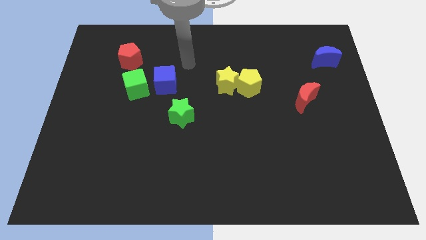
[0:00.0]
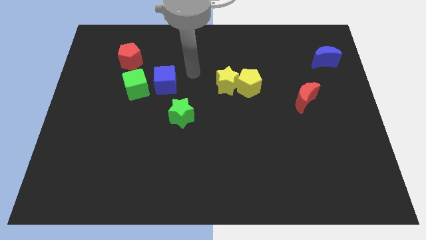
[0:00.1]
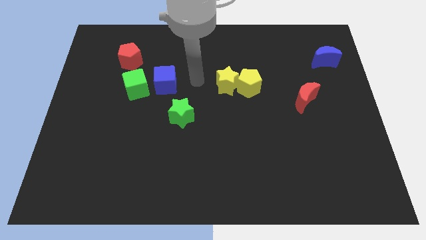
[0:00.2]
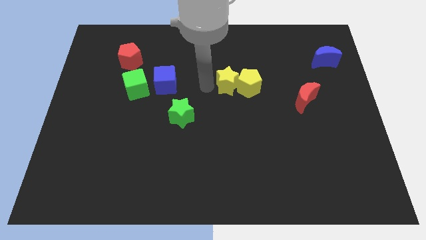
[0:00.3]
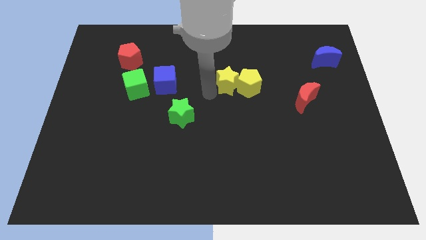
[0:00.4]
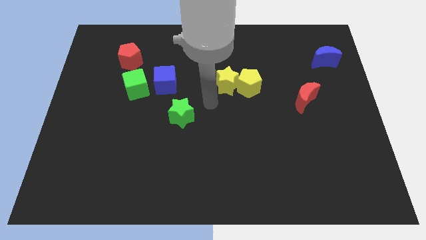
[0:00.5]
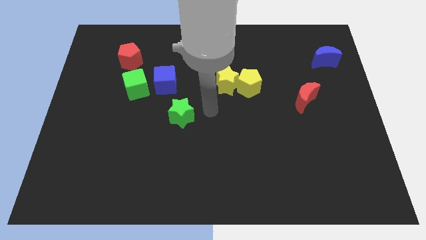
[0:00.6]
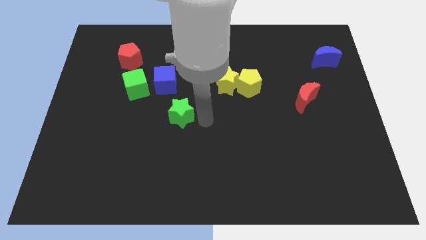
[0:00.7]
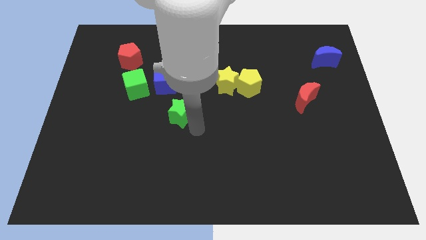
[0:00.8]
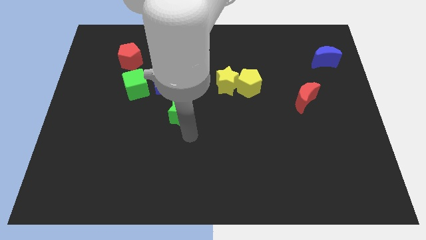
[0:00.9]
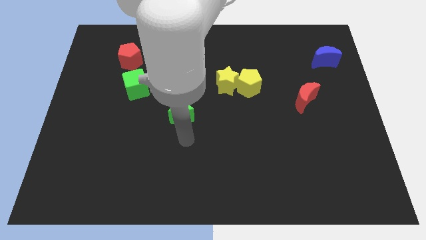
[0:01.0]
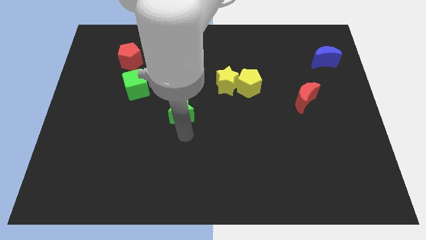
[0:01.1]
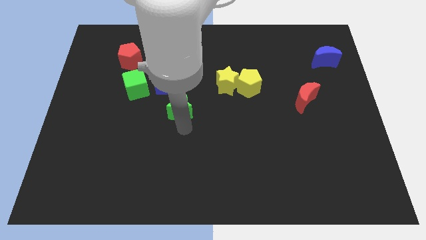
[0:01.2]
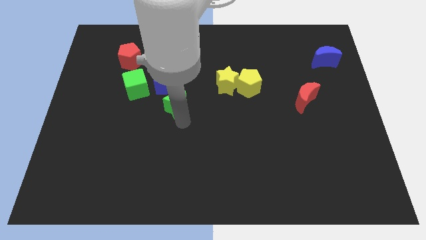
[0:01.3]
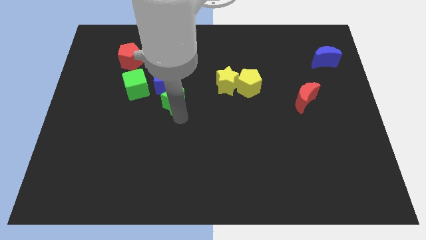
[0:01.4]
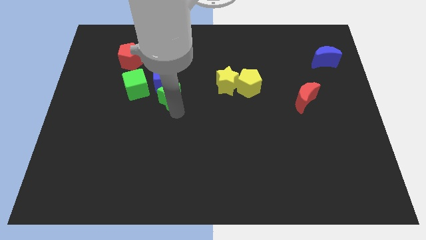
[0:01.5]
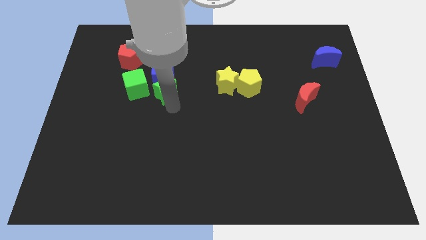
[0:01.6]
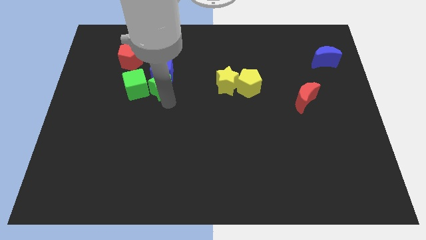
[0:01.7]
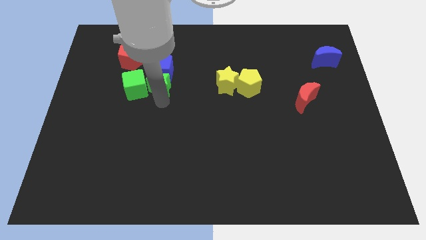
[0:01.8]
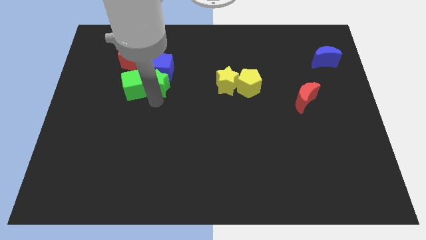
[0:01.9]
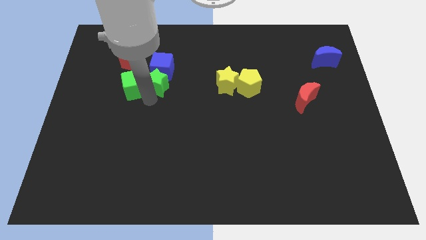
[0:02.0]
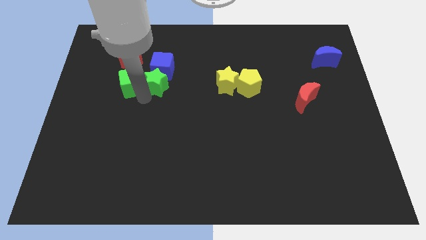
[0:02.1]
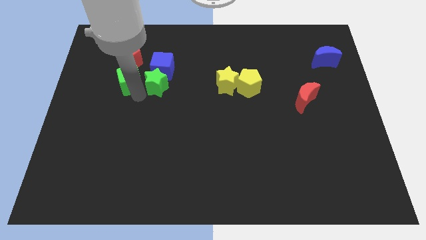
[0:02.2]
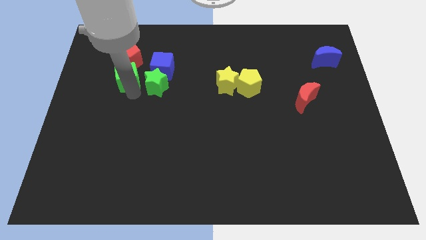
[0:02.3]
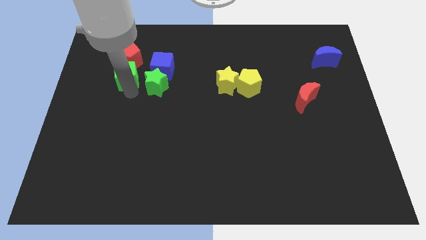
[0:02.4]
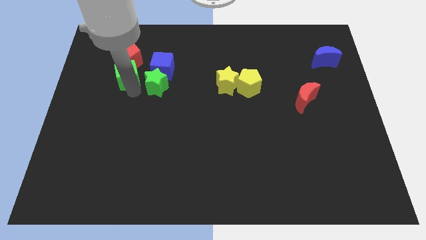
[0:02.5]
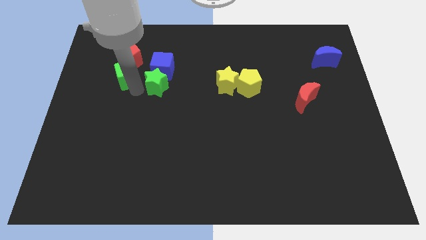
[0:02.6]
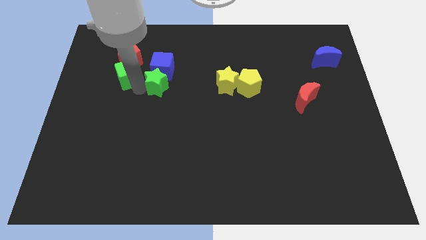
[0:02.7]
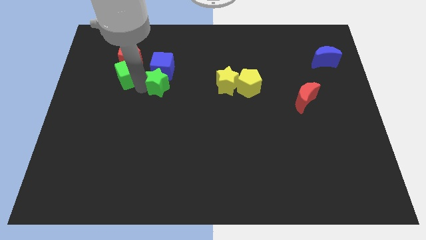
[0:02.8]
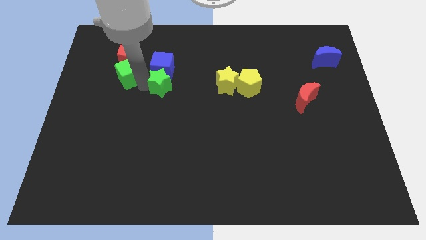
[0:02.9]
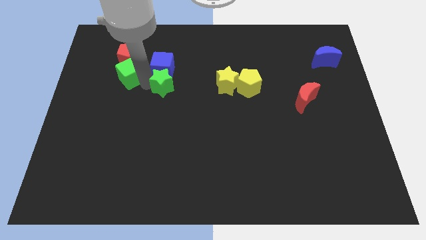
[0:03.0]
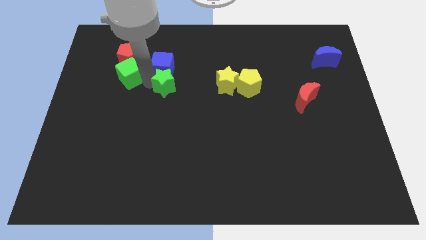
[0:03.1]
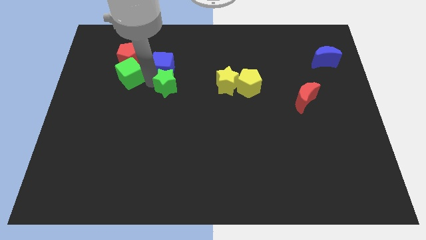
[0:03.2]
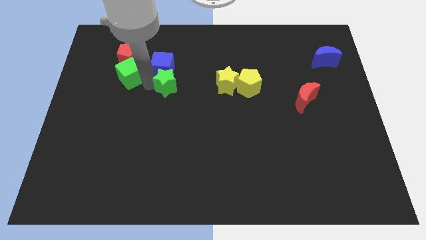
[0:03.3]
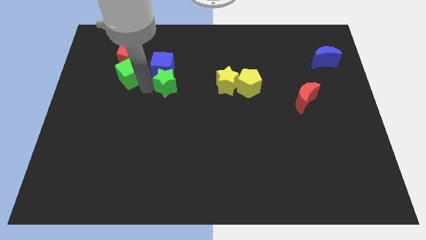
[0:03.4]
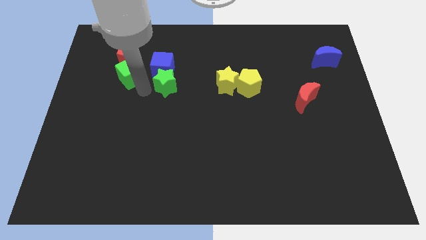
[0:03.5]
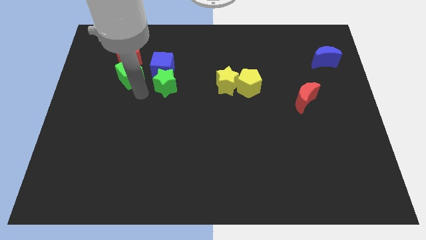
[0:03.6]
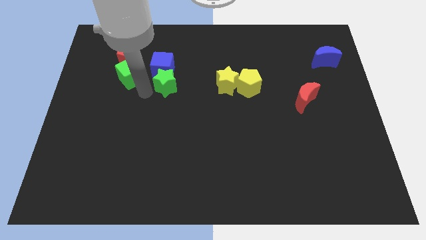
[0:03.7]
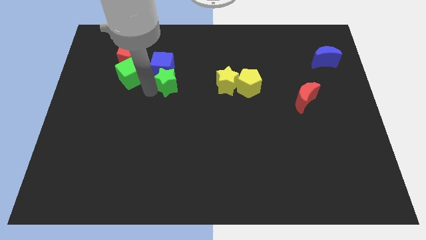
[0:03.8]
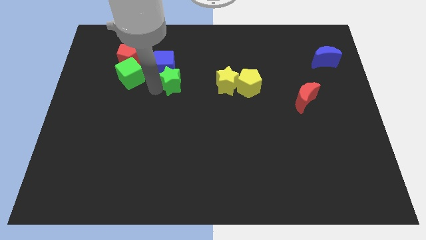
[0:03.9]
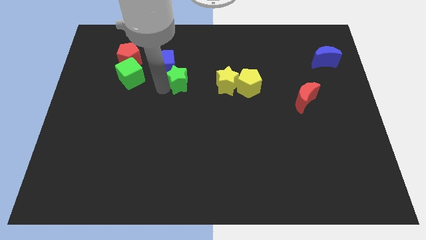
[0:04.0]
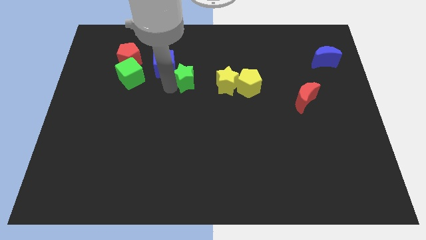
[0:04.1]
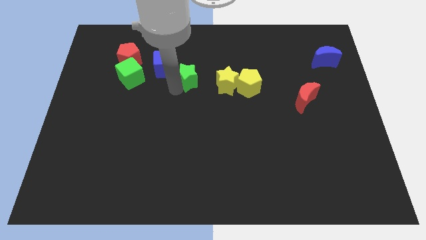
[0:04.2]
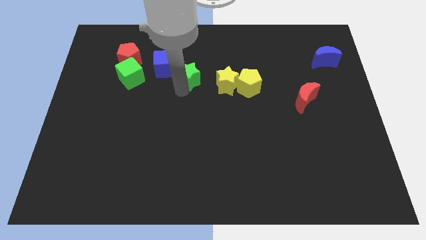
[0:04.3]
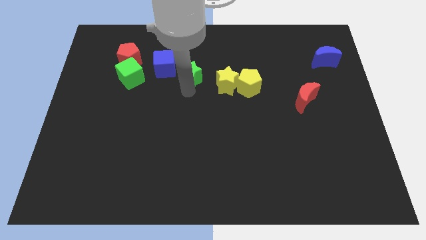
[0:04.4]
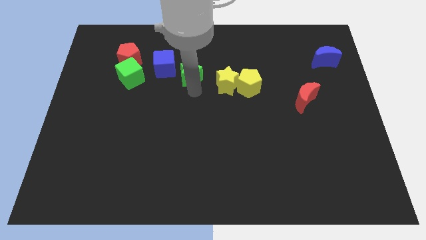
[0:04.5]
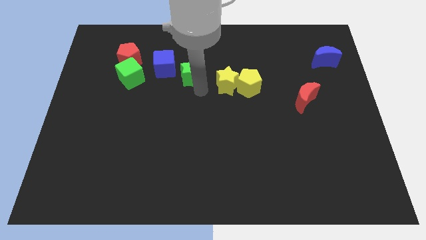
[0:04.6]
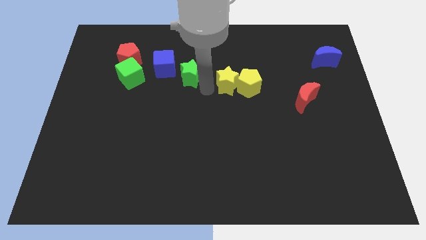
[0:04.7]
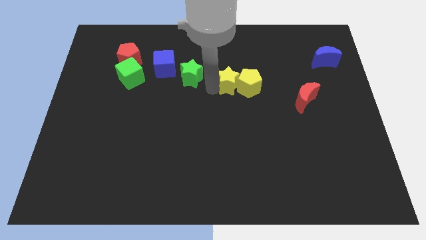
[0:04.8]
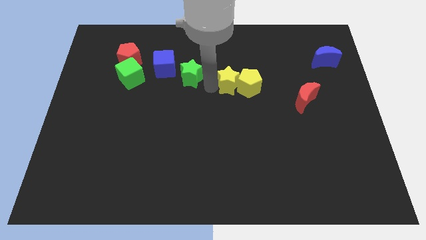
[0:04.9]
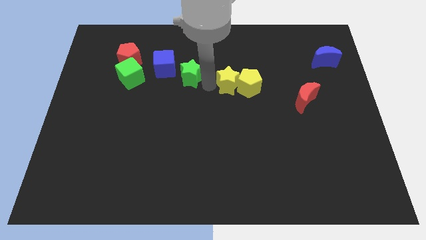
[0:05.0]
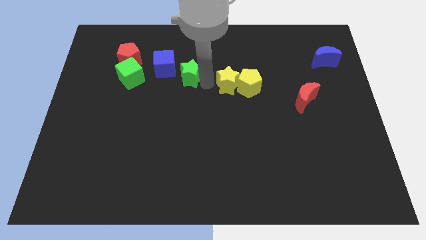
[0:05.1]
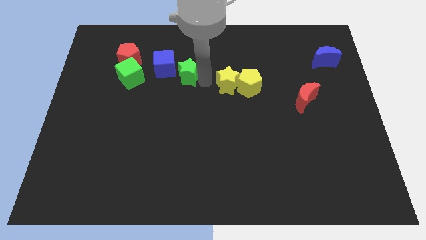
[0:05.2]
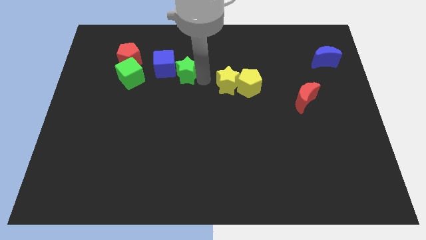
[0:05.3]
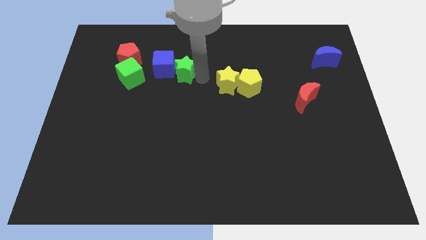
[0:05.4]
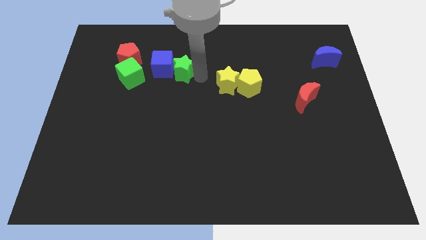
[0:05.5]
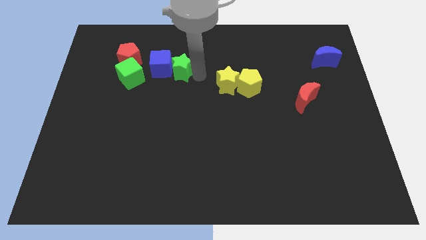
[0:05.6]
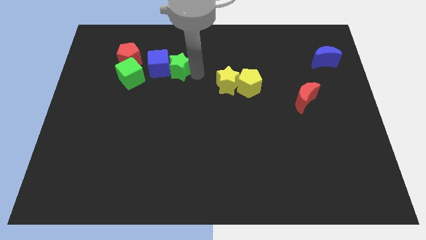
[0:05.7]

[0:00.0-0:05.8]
slide the green star to the right side of the red pentagon

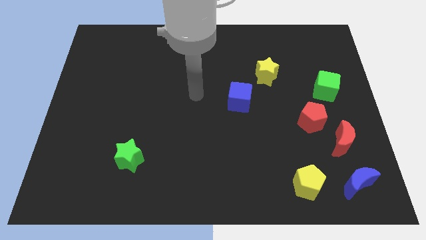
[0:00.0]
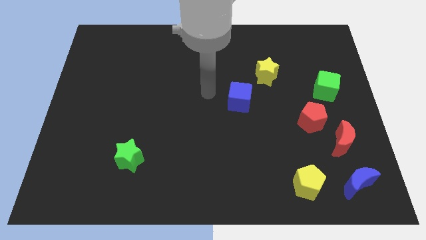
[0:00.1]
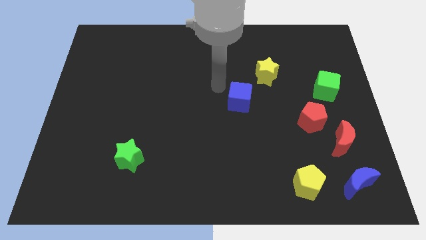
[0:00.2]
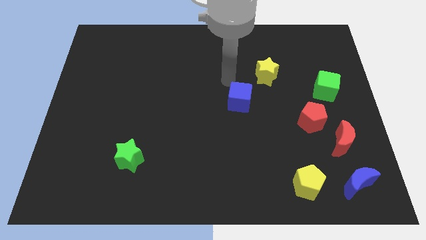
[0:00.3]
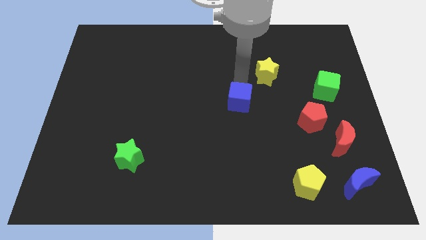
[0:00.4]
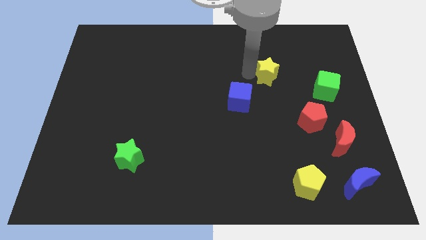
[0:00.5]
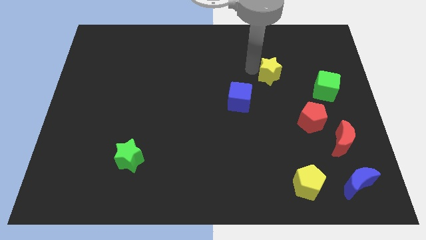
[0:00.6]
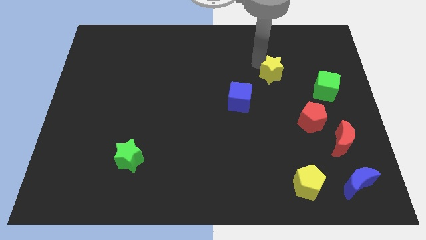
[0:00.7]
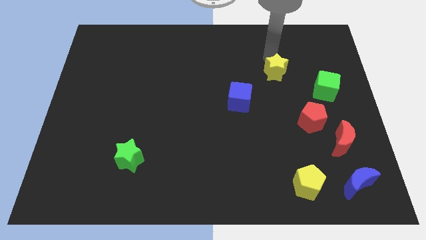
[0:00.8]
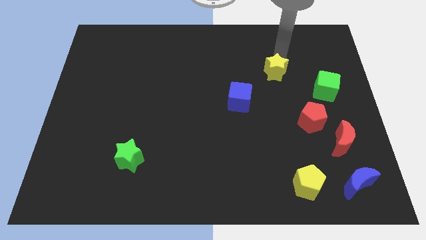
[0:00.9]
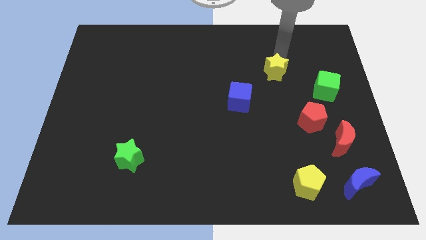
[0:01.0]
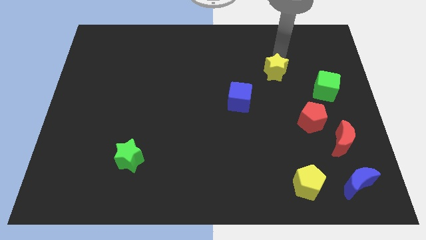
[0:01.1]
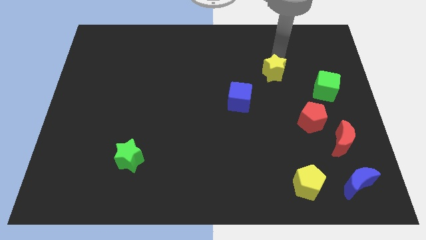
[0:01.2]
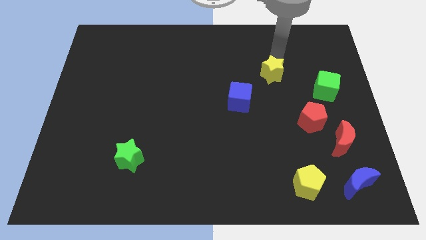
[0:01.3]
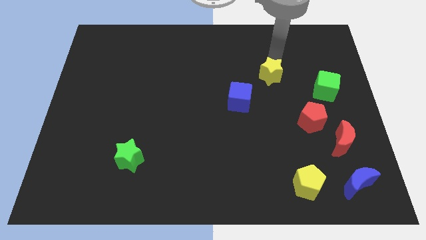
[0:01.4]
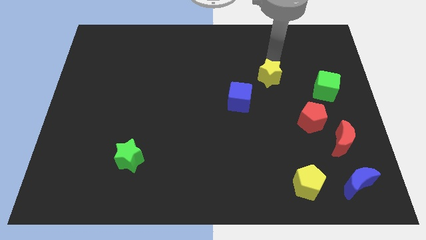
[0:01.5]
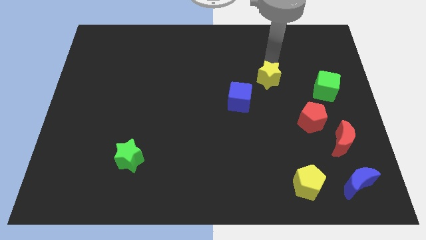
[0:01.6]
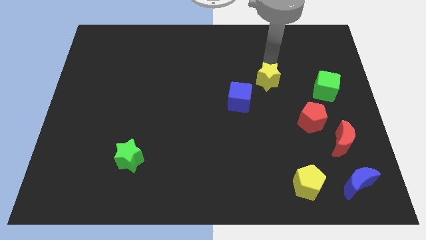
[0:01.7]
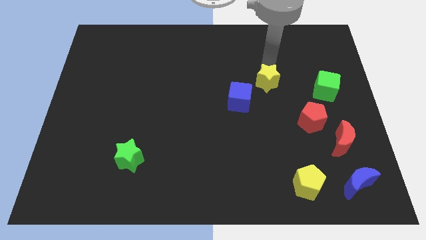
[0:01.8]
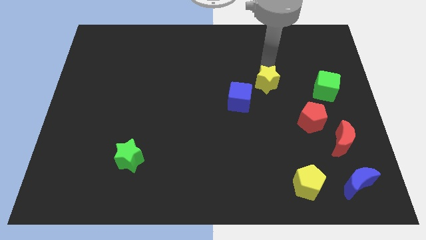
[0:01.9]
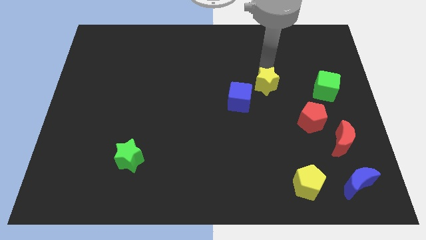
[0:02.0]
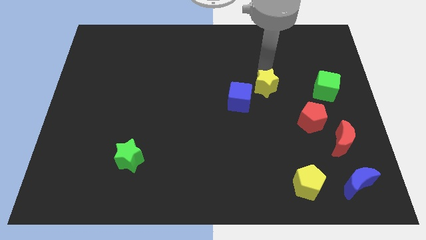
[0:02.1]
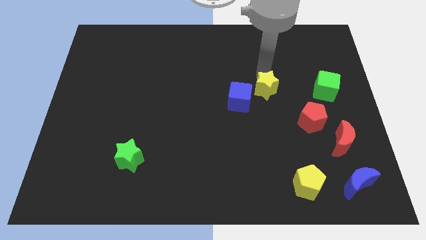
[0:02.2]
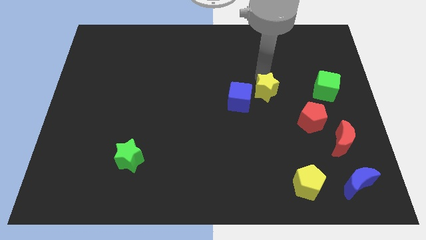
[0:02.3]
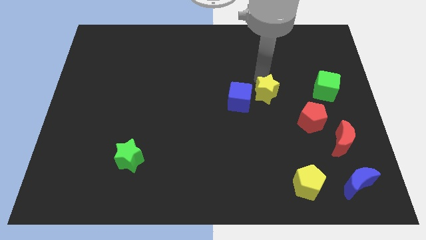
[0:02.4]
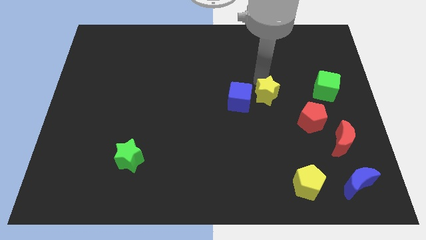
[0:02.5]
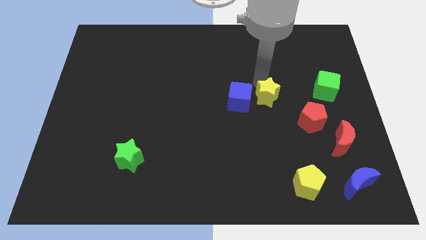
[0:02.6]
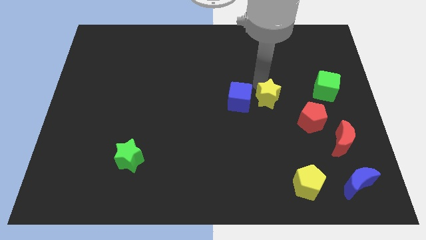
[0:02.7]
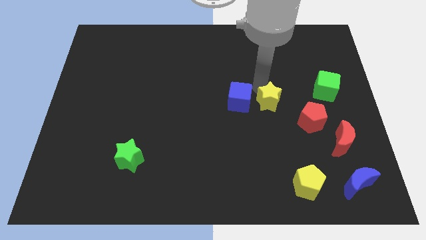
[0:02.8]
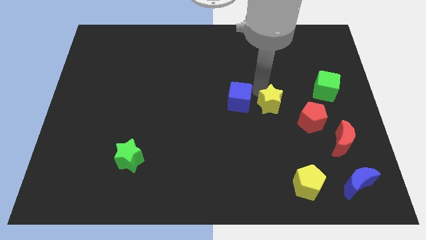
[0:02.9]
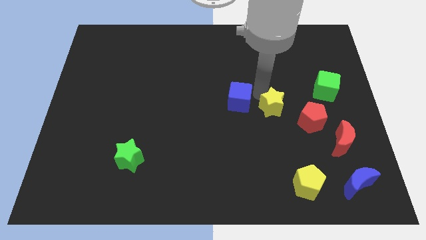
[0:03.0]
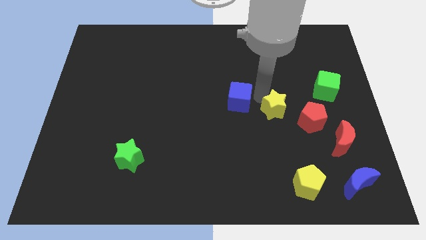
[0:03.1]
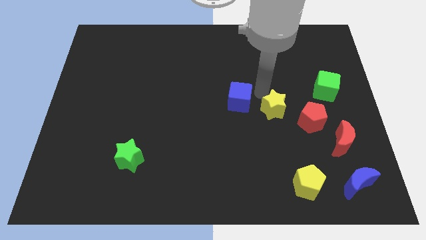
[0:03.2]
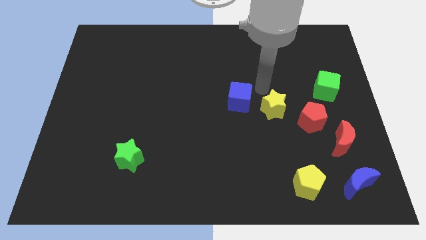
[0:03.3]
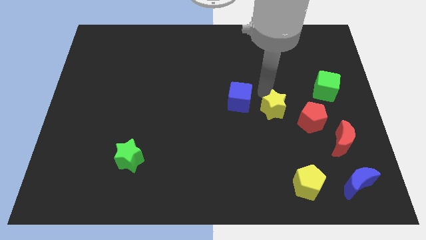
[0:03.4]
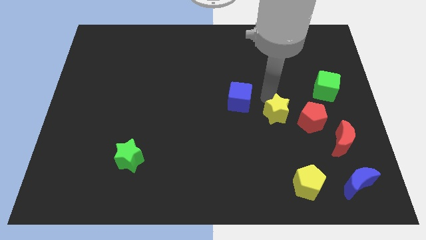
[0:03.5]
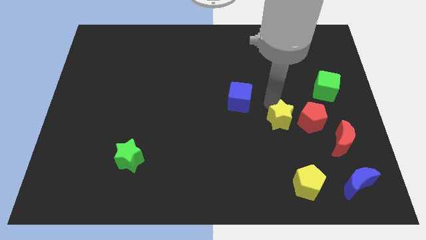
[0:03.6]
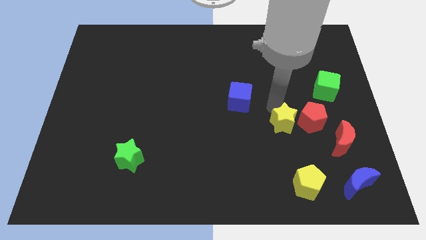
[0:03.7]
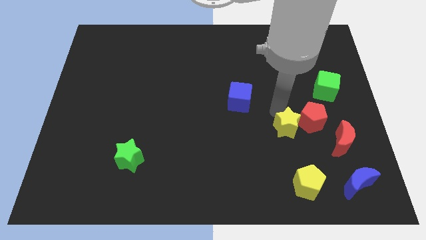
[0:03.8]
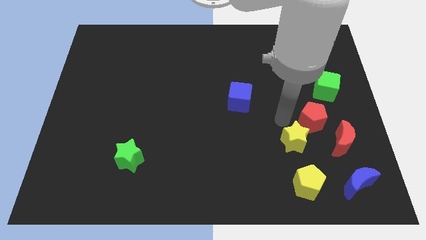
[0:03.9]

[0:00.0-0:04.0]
slide the yellow star below the red pentagon
